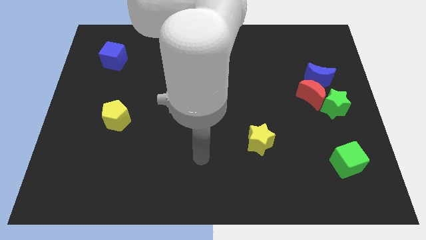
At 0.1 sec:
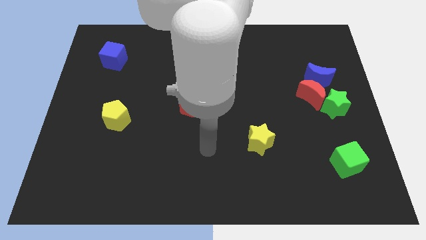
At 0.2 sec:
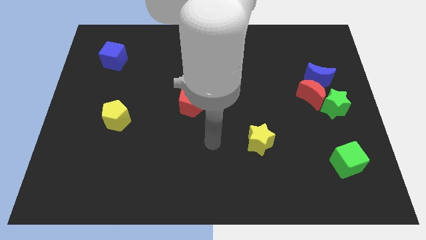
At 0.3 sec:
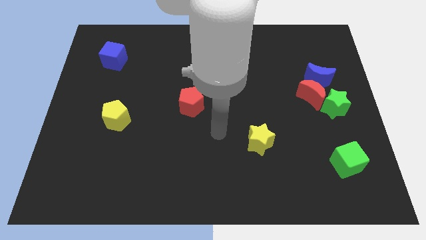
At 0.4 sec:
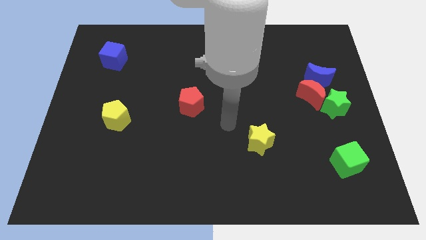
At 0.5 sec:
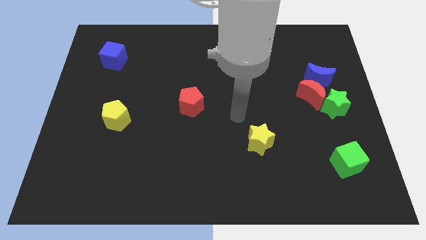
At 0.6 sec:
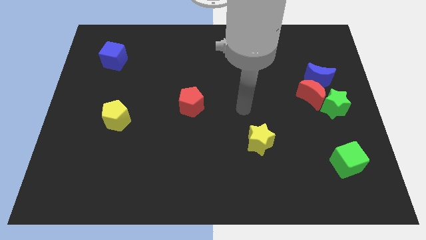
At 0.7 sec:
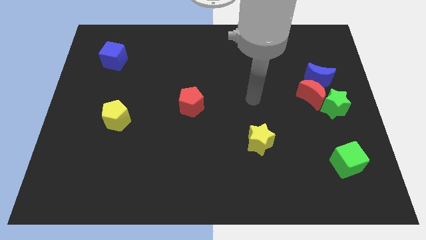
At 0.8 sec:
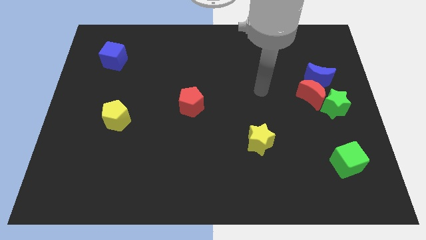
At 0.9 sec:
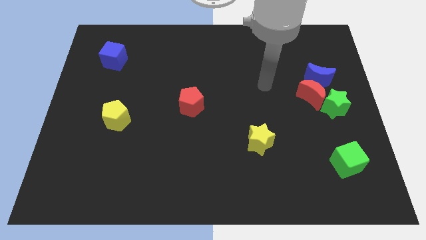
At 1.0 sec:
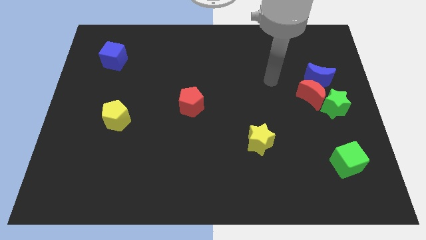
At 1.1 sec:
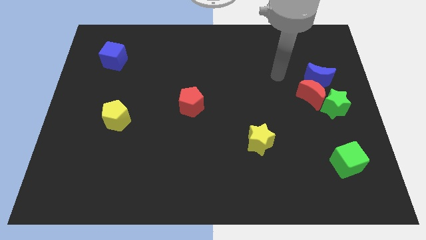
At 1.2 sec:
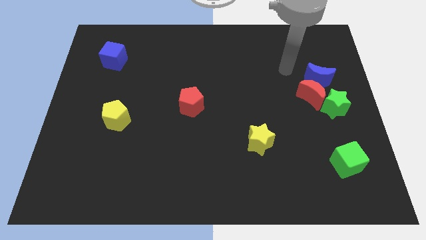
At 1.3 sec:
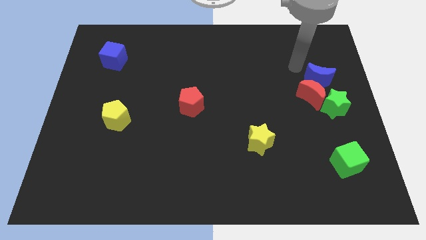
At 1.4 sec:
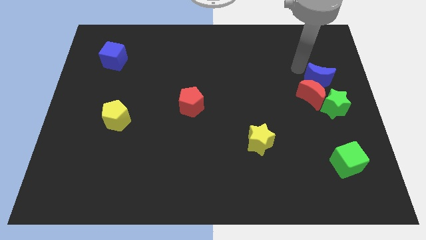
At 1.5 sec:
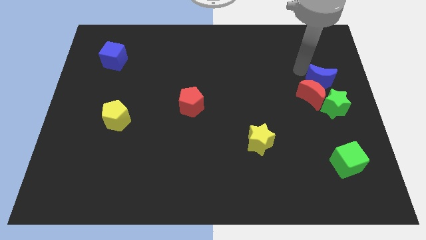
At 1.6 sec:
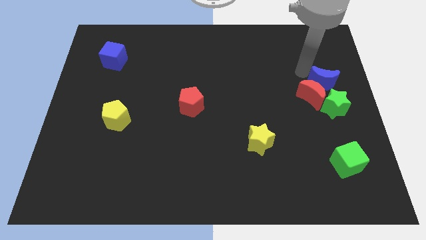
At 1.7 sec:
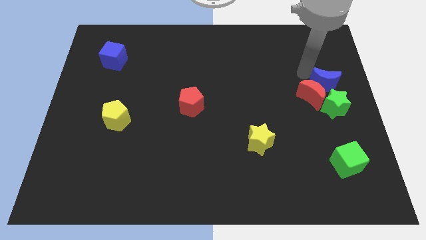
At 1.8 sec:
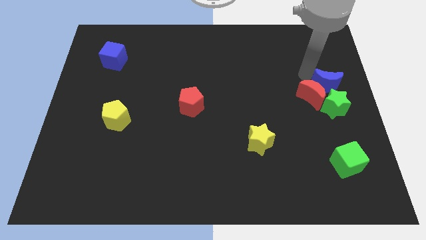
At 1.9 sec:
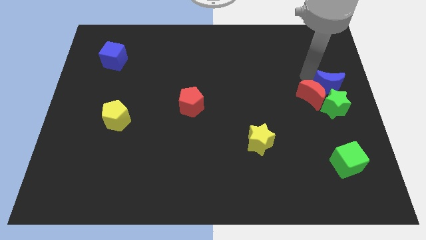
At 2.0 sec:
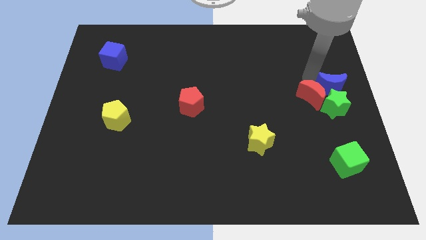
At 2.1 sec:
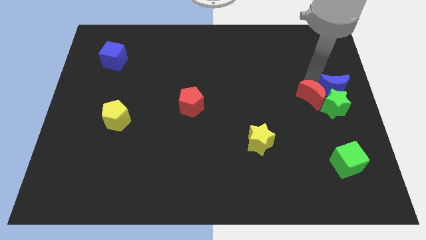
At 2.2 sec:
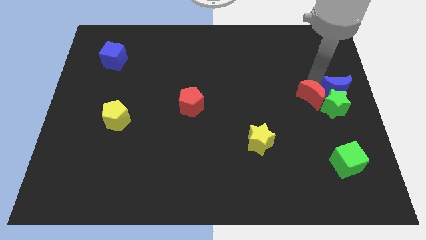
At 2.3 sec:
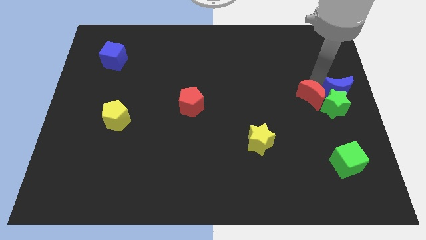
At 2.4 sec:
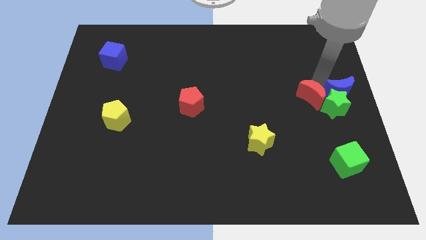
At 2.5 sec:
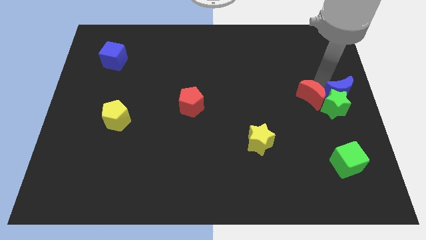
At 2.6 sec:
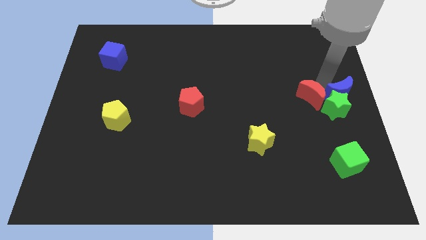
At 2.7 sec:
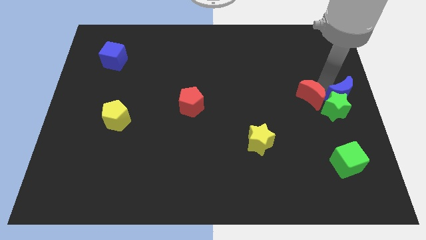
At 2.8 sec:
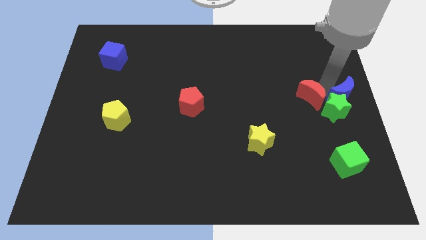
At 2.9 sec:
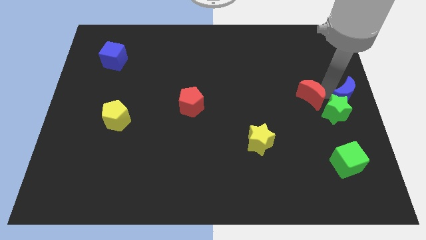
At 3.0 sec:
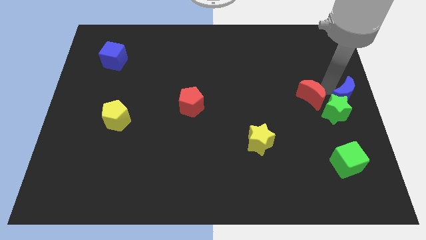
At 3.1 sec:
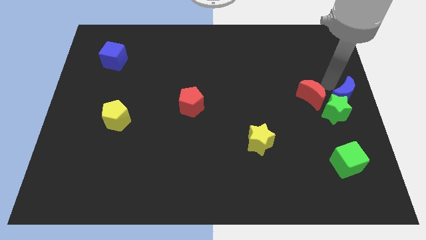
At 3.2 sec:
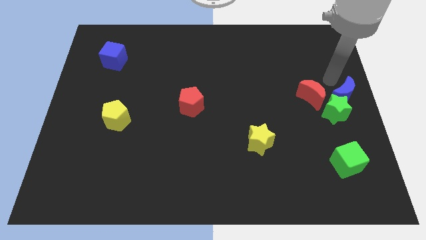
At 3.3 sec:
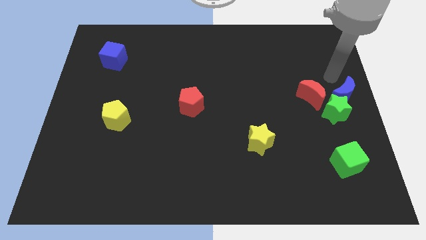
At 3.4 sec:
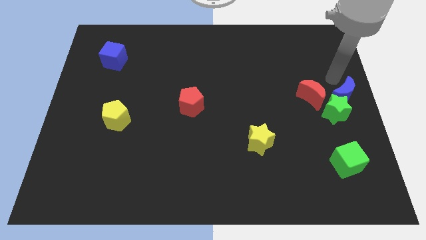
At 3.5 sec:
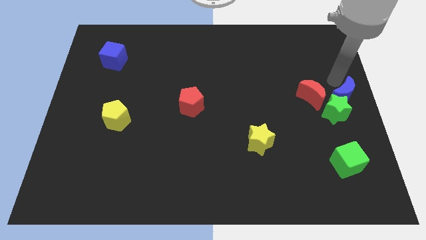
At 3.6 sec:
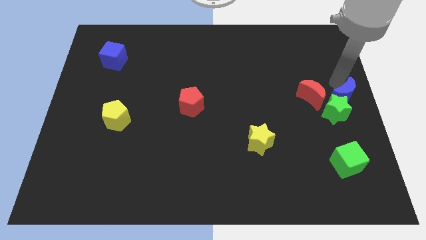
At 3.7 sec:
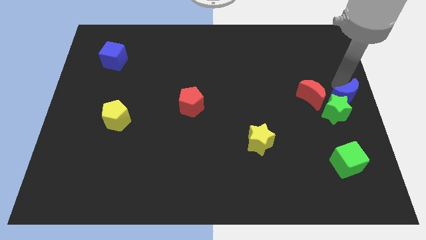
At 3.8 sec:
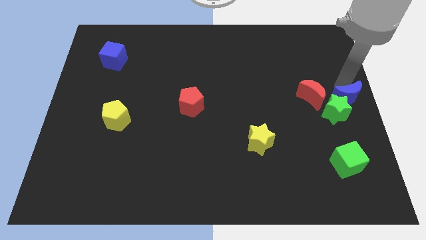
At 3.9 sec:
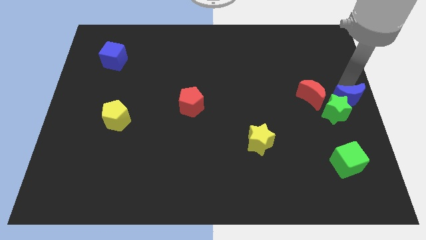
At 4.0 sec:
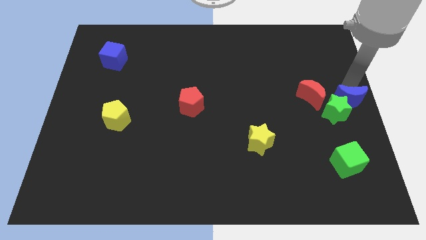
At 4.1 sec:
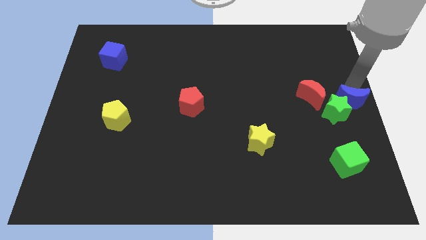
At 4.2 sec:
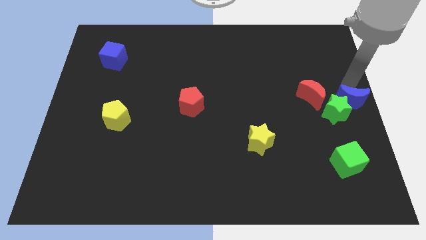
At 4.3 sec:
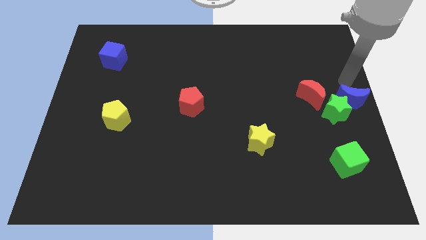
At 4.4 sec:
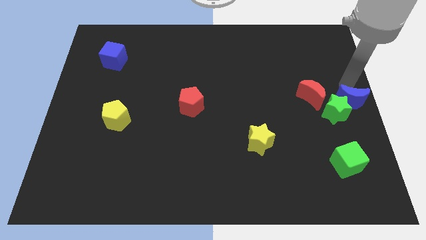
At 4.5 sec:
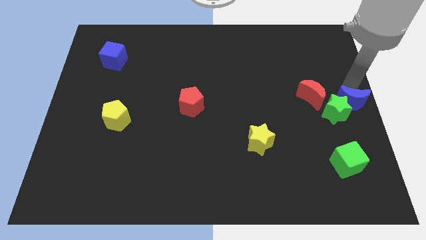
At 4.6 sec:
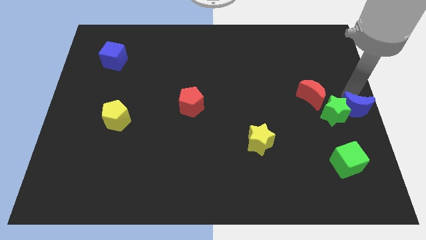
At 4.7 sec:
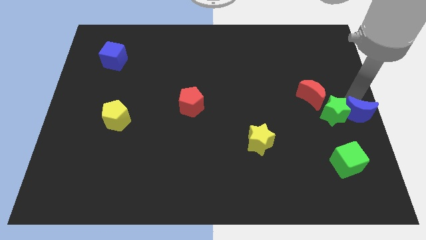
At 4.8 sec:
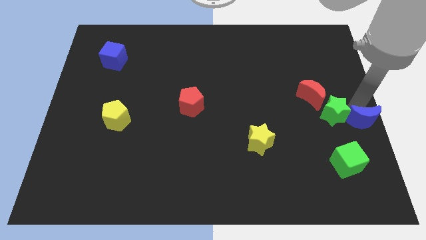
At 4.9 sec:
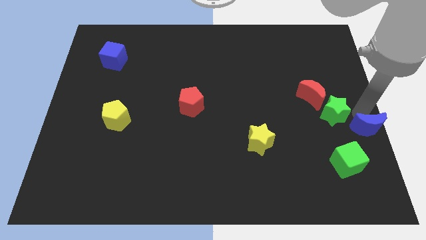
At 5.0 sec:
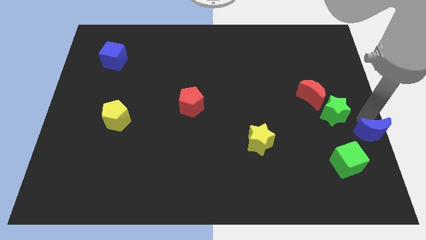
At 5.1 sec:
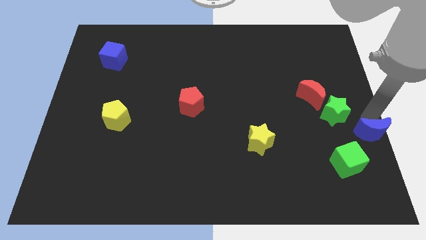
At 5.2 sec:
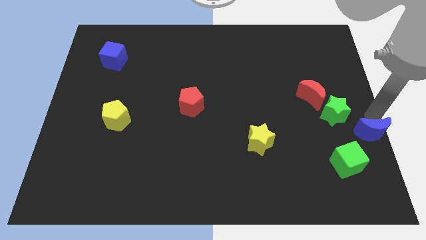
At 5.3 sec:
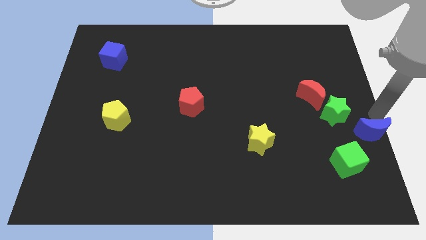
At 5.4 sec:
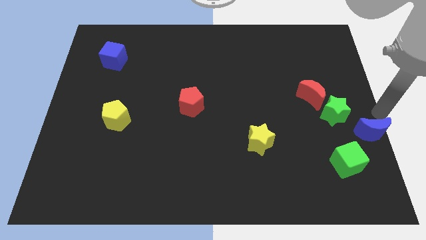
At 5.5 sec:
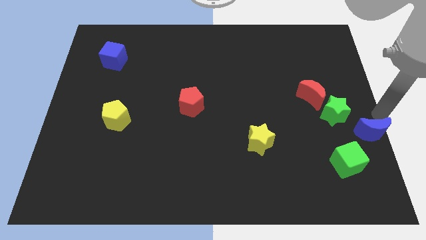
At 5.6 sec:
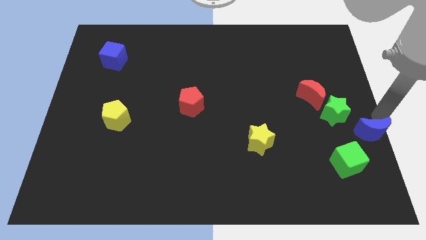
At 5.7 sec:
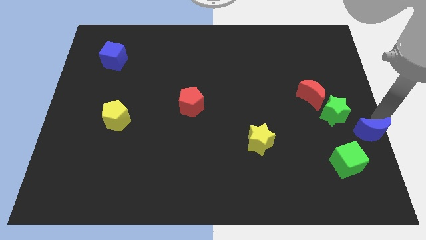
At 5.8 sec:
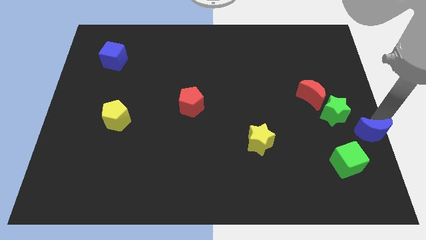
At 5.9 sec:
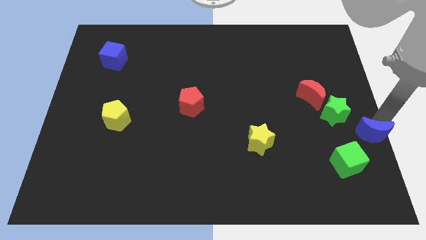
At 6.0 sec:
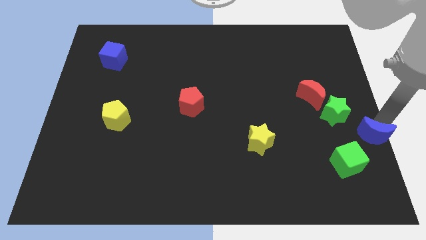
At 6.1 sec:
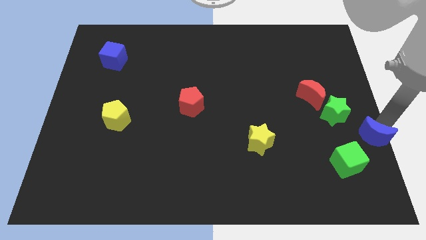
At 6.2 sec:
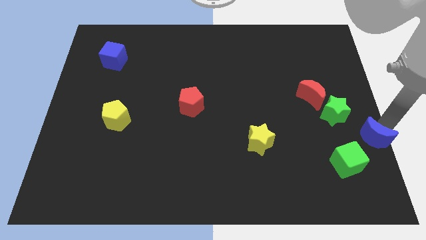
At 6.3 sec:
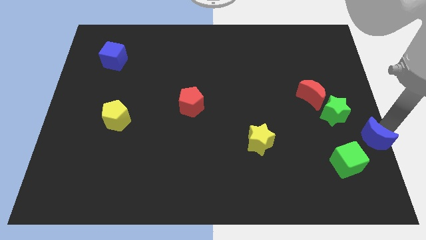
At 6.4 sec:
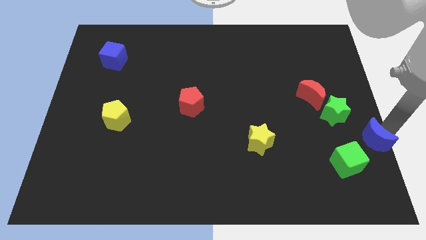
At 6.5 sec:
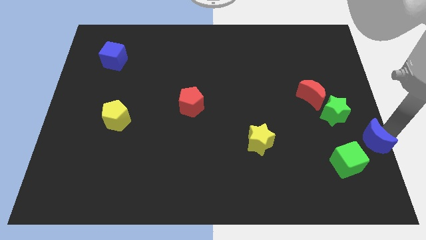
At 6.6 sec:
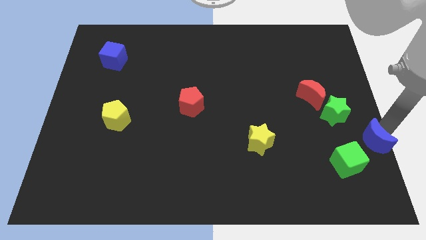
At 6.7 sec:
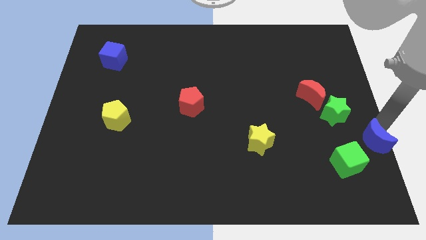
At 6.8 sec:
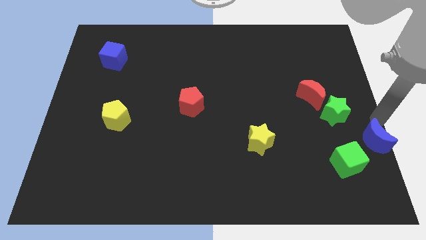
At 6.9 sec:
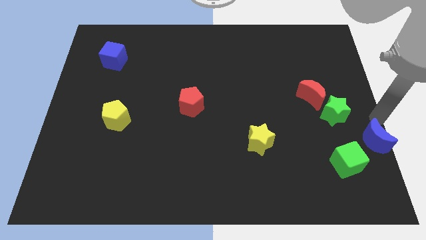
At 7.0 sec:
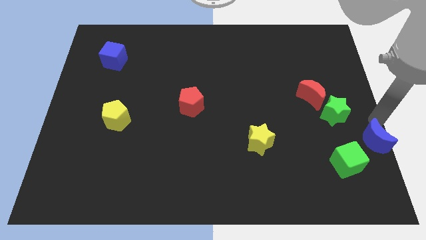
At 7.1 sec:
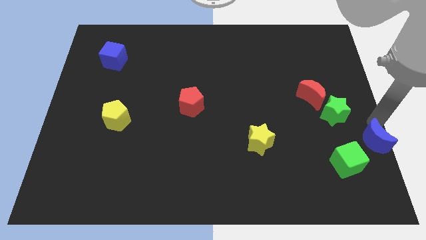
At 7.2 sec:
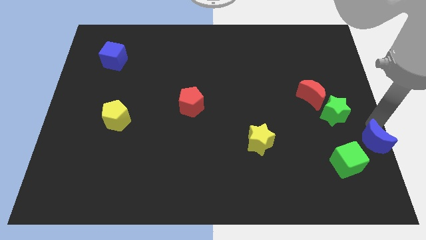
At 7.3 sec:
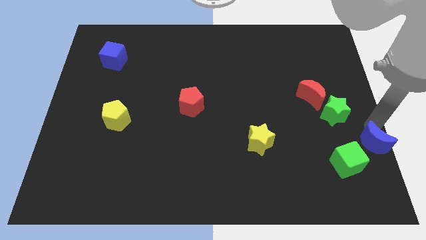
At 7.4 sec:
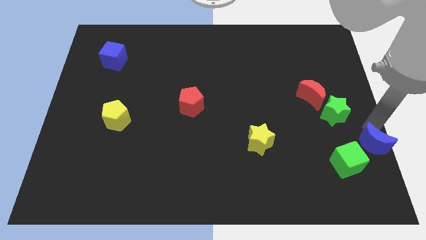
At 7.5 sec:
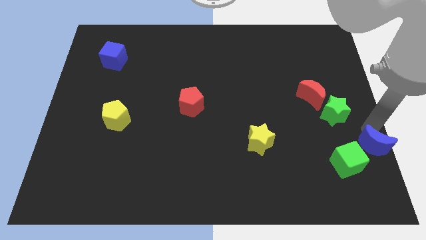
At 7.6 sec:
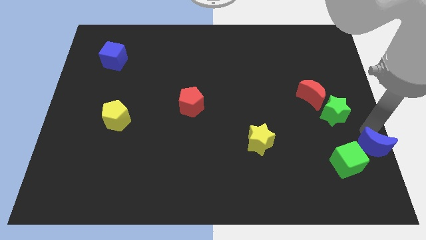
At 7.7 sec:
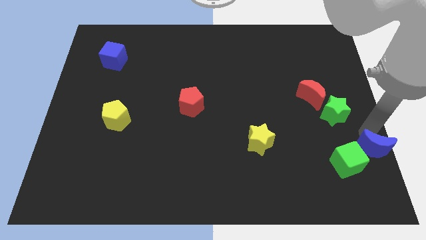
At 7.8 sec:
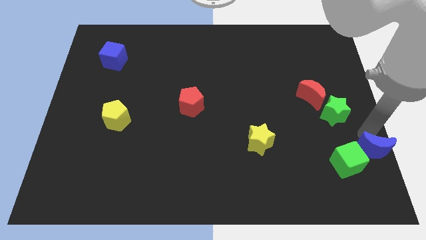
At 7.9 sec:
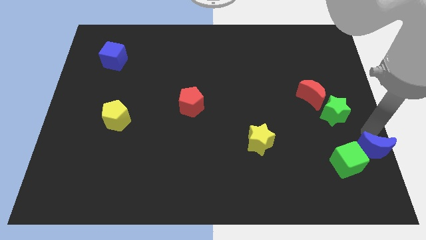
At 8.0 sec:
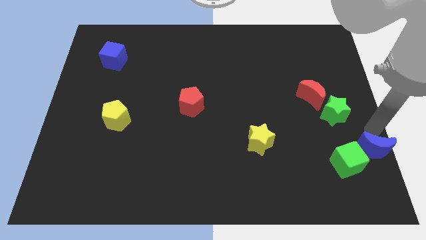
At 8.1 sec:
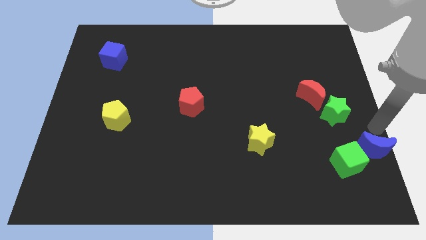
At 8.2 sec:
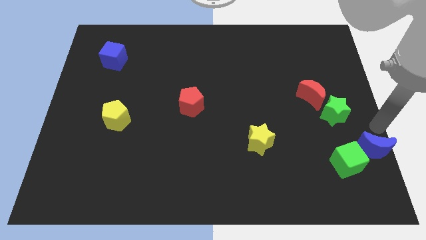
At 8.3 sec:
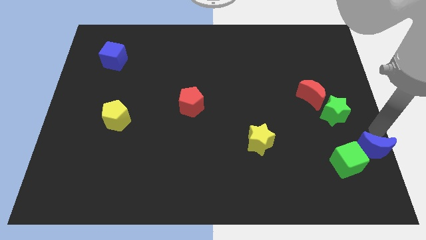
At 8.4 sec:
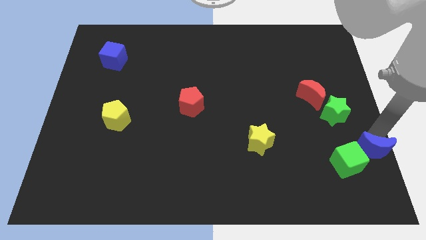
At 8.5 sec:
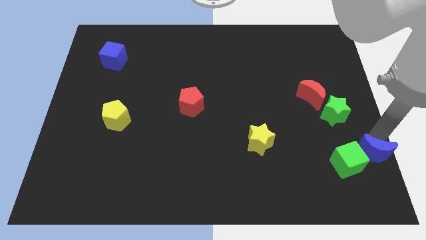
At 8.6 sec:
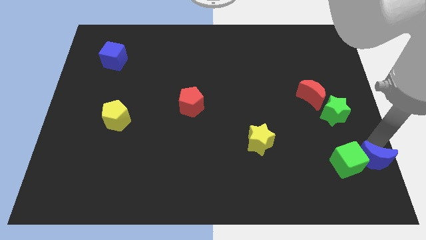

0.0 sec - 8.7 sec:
move the blue moon to the bottom right corner
